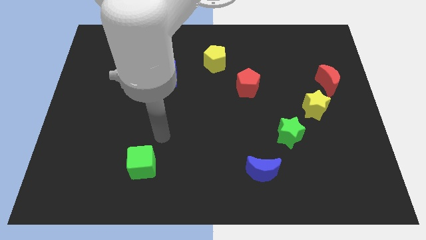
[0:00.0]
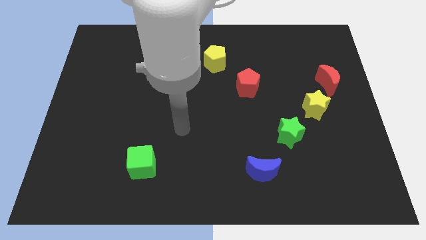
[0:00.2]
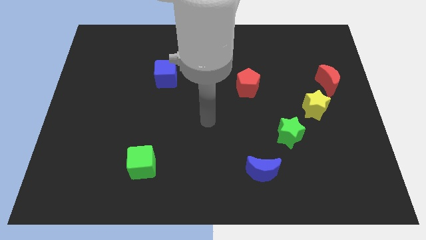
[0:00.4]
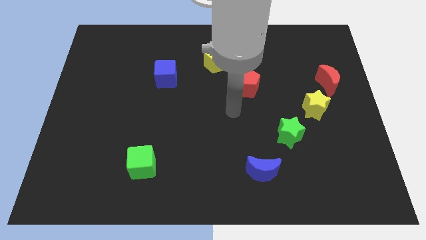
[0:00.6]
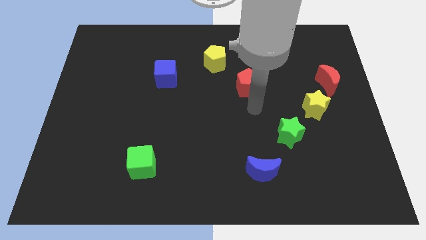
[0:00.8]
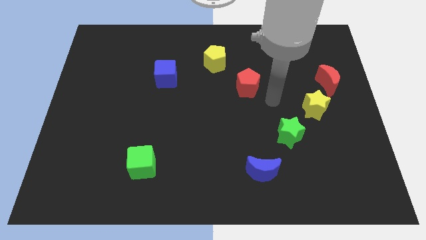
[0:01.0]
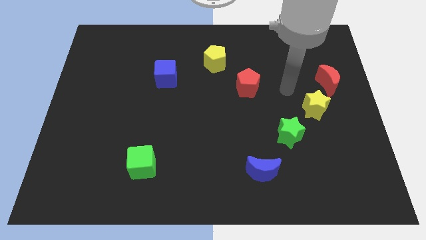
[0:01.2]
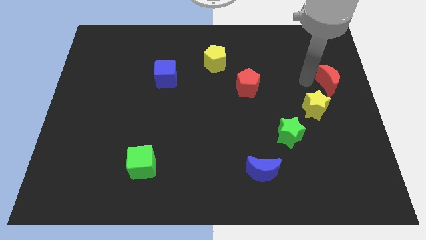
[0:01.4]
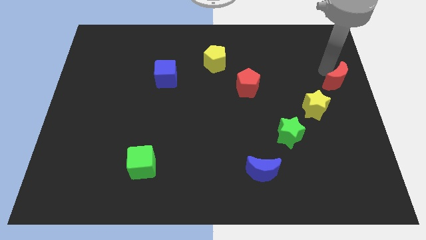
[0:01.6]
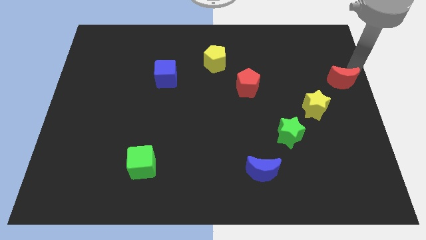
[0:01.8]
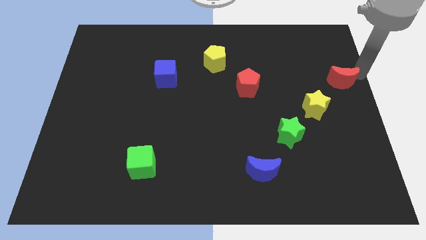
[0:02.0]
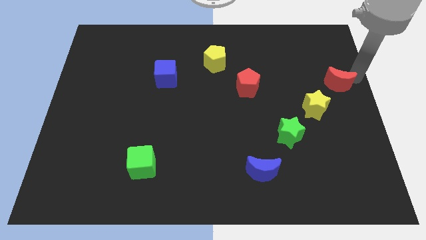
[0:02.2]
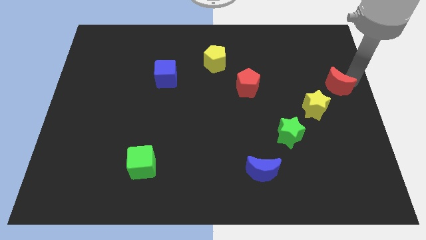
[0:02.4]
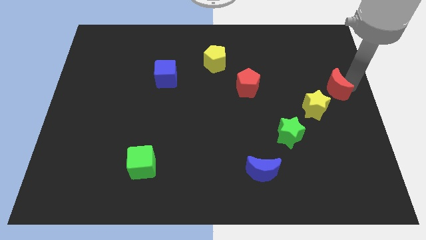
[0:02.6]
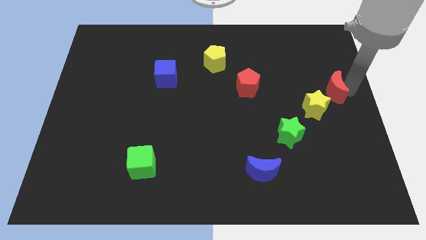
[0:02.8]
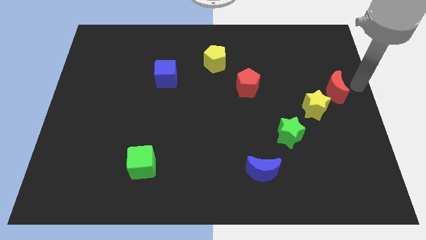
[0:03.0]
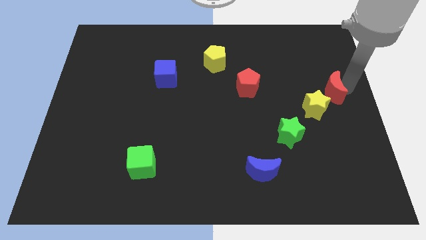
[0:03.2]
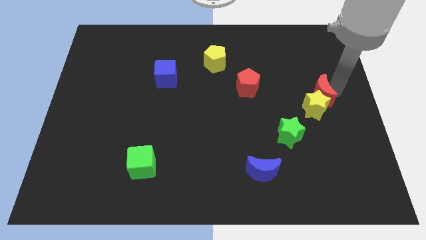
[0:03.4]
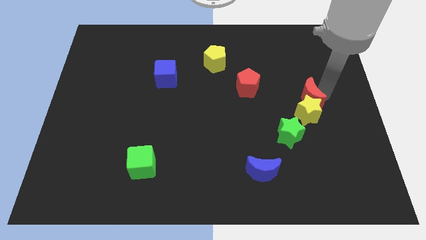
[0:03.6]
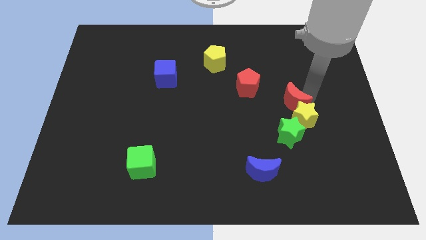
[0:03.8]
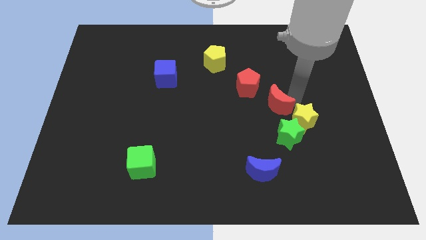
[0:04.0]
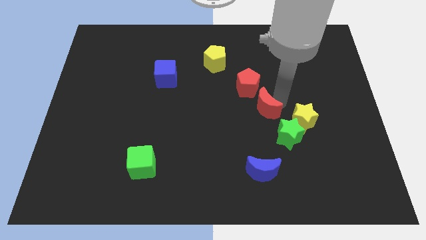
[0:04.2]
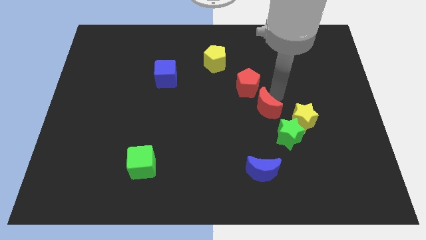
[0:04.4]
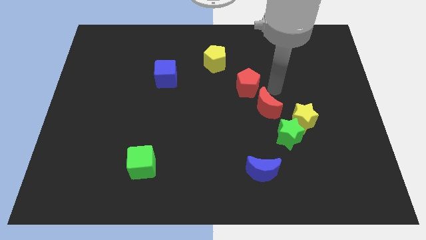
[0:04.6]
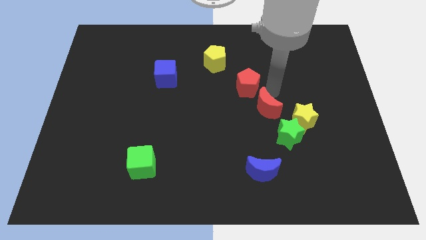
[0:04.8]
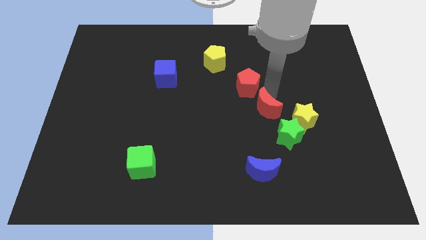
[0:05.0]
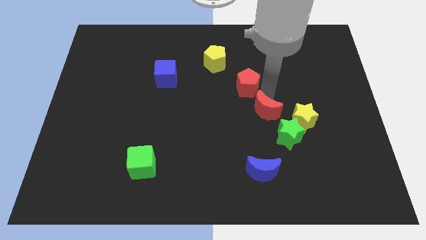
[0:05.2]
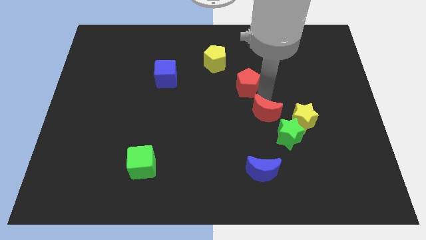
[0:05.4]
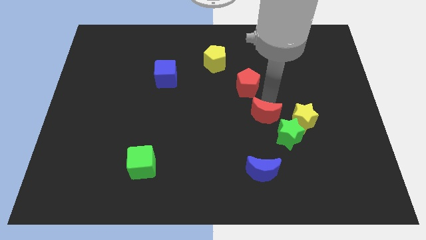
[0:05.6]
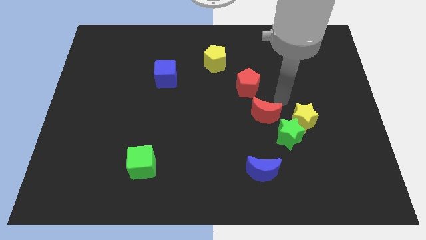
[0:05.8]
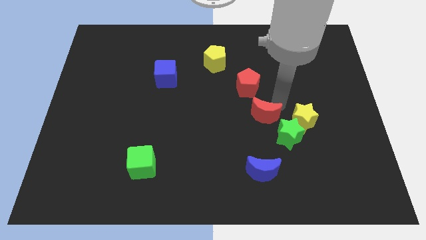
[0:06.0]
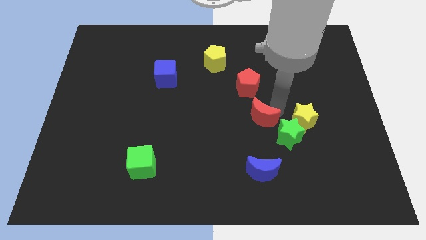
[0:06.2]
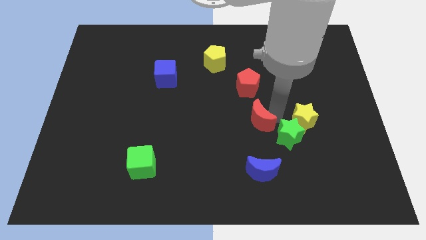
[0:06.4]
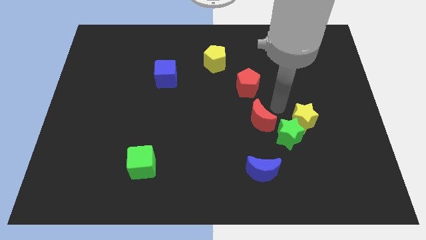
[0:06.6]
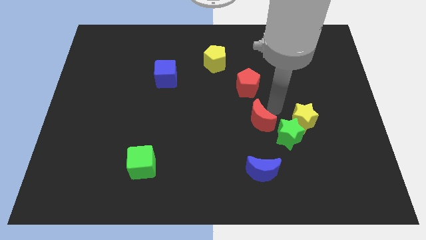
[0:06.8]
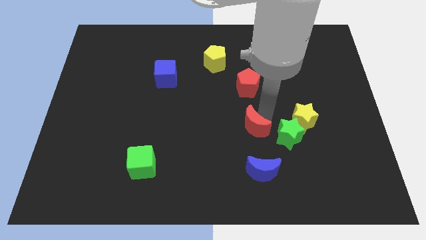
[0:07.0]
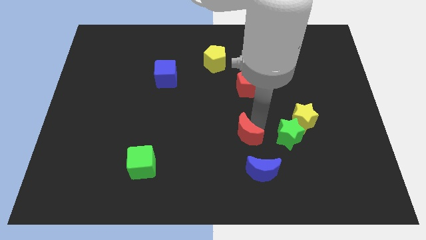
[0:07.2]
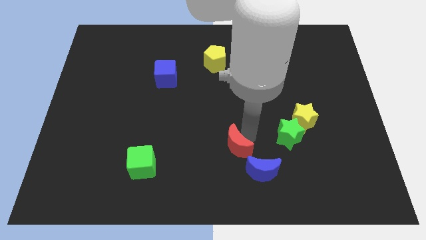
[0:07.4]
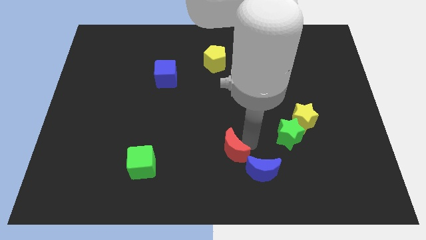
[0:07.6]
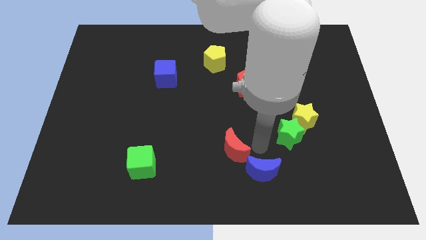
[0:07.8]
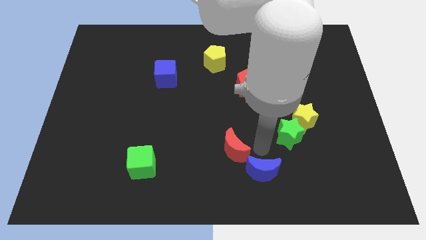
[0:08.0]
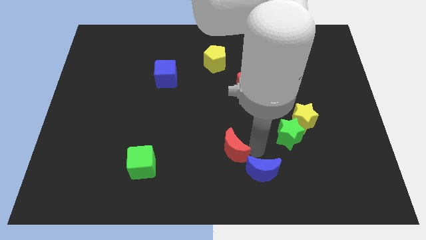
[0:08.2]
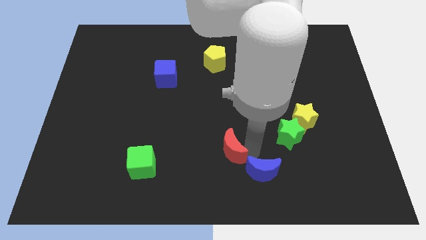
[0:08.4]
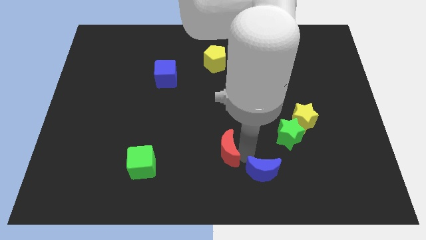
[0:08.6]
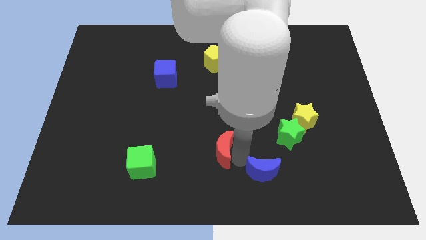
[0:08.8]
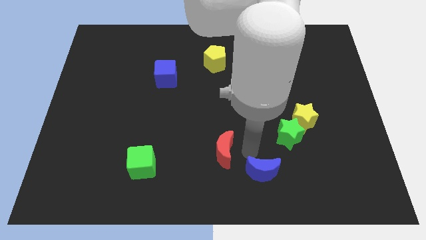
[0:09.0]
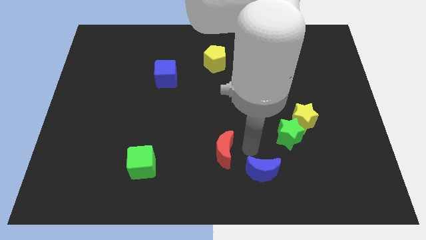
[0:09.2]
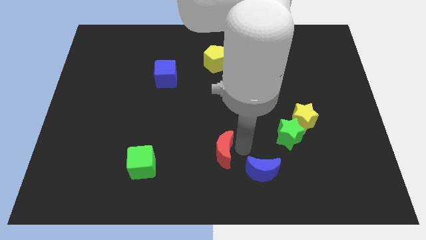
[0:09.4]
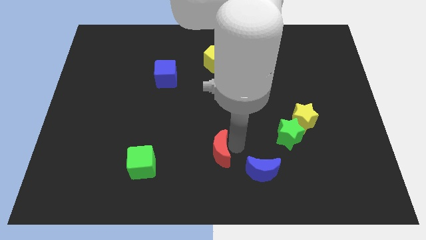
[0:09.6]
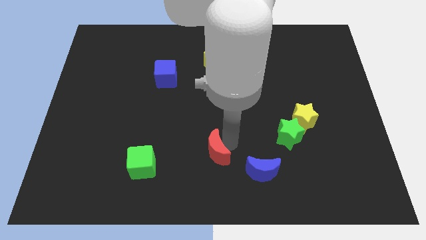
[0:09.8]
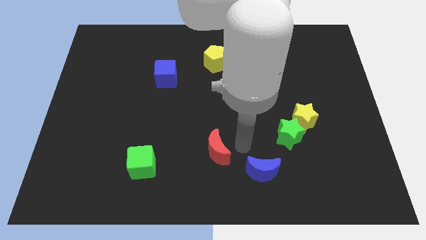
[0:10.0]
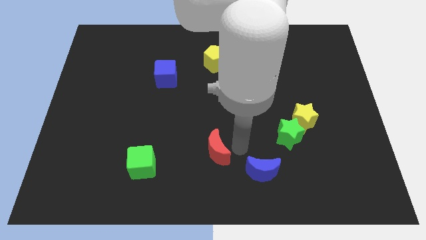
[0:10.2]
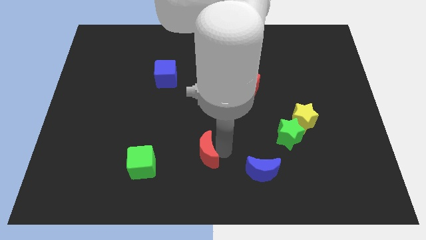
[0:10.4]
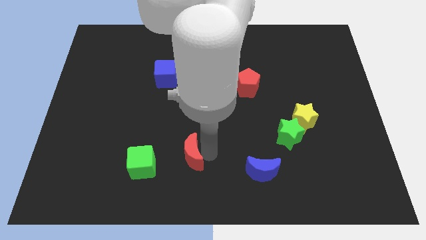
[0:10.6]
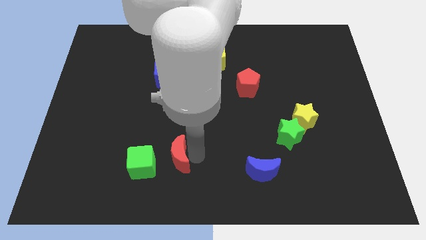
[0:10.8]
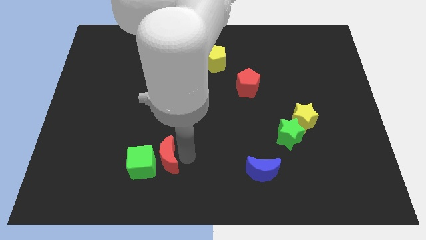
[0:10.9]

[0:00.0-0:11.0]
push the red moon close to the green cube

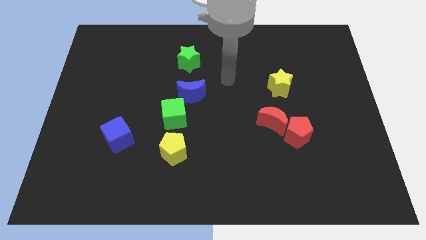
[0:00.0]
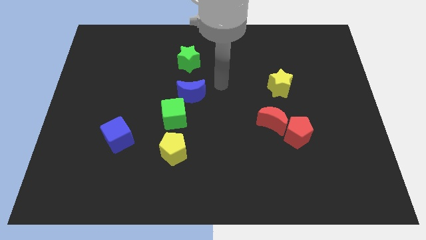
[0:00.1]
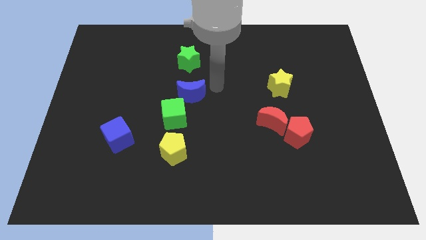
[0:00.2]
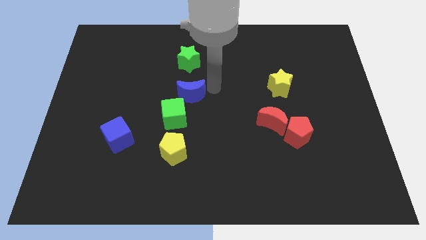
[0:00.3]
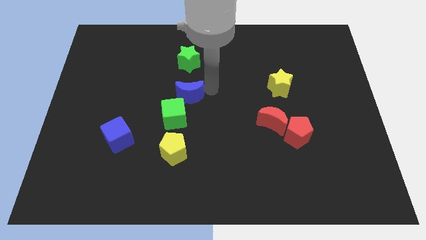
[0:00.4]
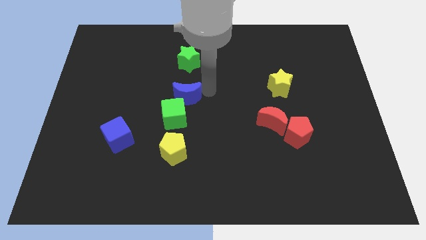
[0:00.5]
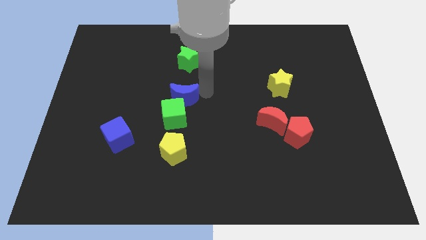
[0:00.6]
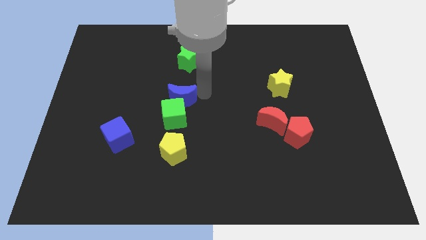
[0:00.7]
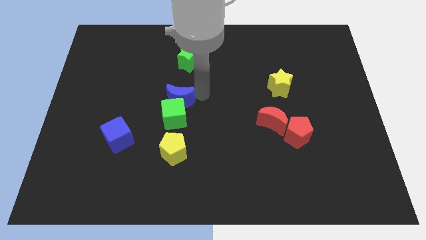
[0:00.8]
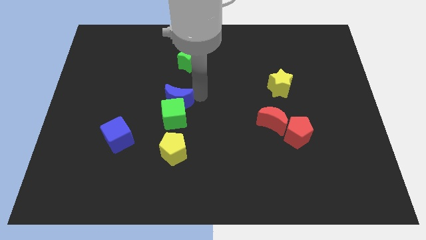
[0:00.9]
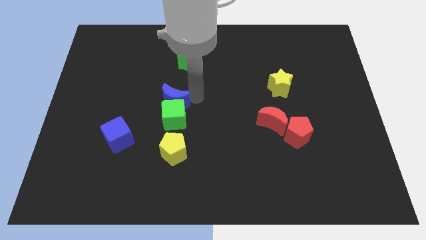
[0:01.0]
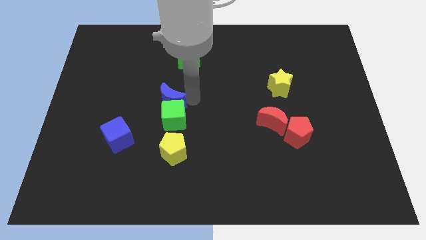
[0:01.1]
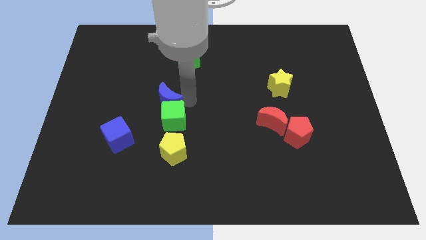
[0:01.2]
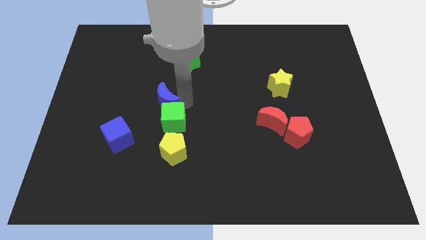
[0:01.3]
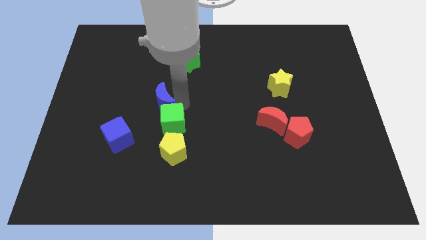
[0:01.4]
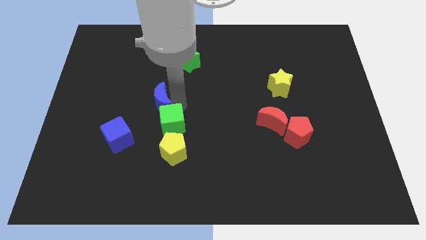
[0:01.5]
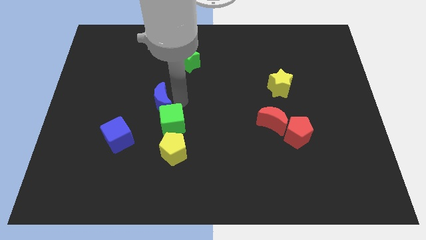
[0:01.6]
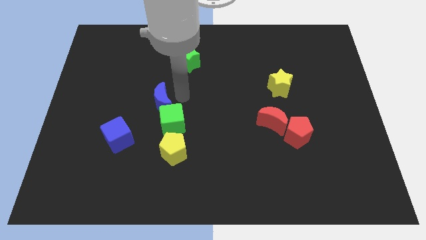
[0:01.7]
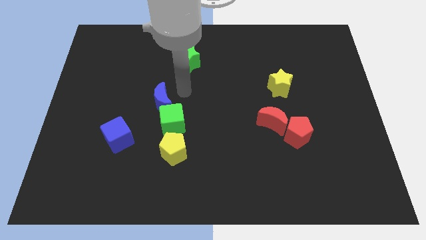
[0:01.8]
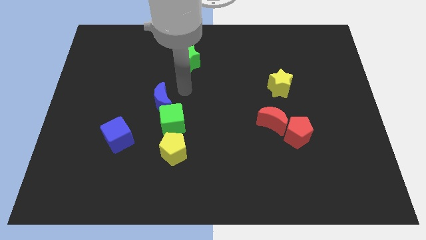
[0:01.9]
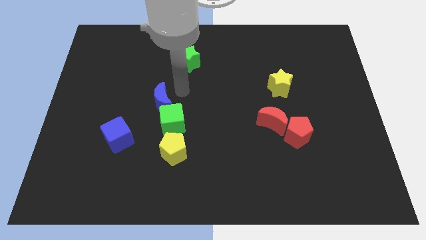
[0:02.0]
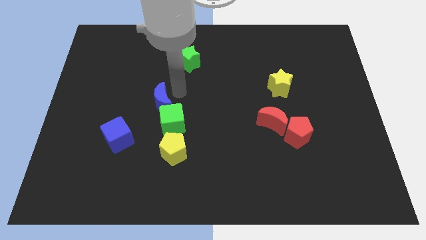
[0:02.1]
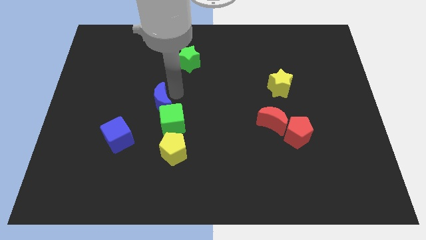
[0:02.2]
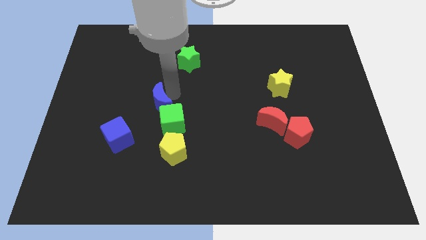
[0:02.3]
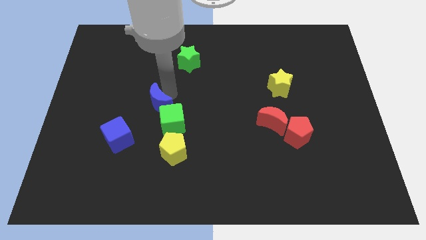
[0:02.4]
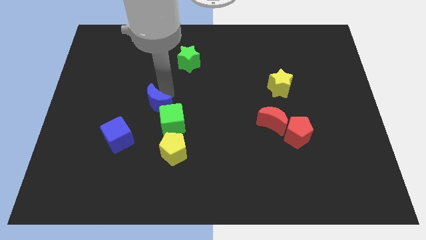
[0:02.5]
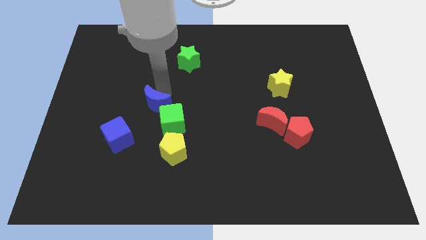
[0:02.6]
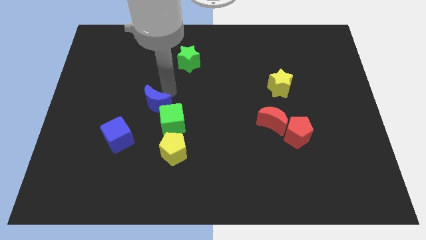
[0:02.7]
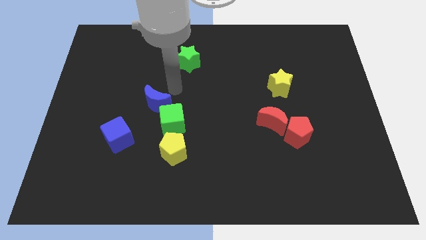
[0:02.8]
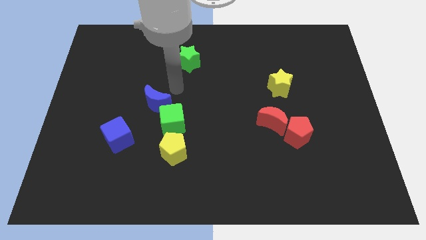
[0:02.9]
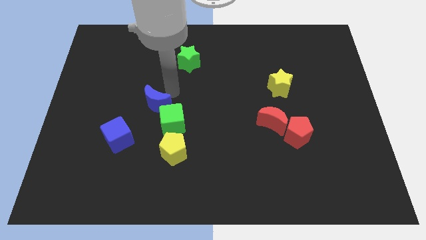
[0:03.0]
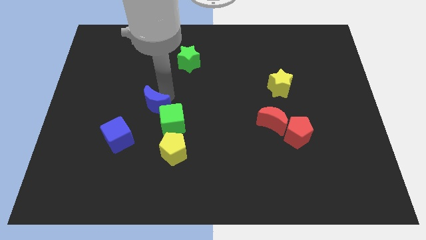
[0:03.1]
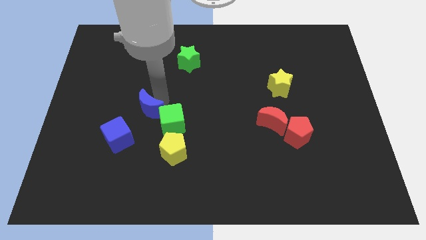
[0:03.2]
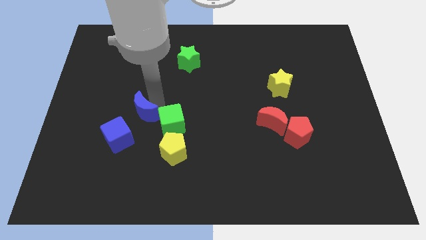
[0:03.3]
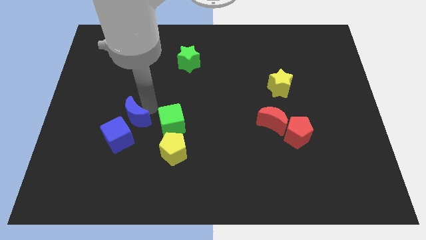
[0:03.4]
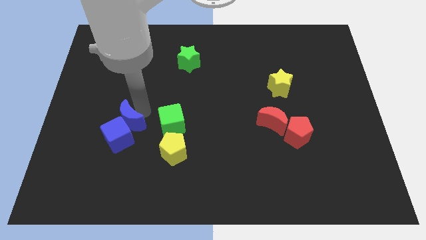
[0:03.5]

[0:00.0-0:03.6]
put the blue moon to the blue cube
